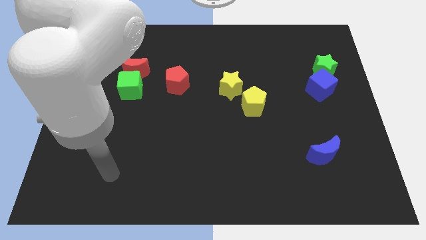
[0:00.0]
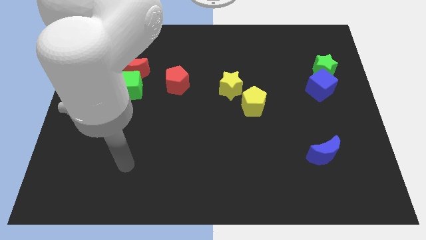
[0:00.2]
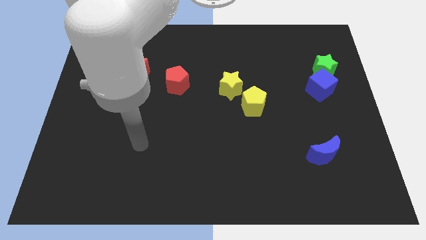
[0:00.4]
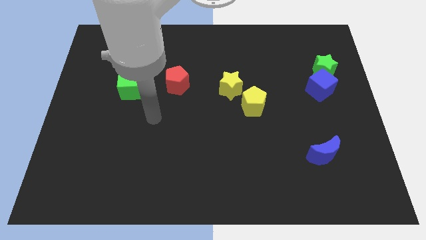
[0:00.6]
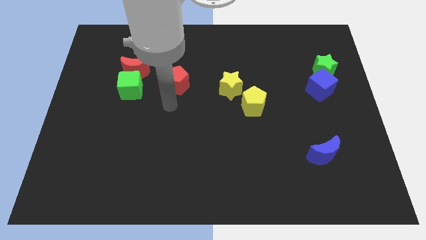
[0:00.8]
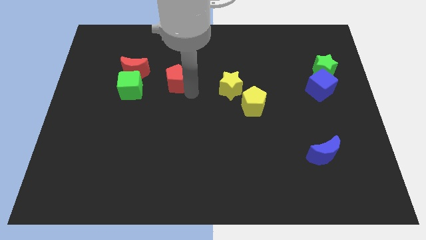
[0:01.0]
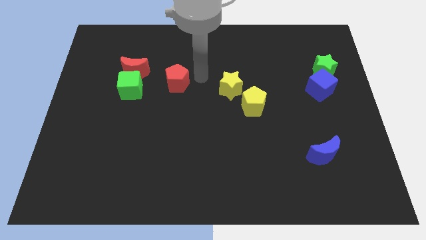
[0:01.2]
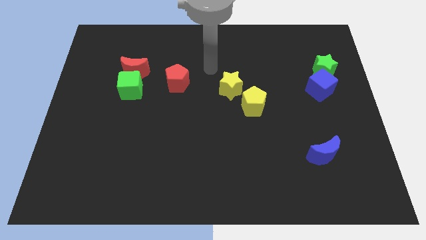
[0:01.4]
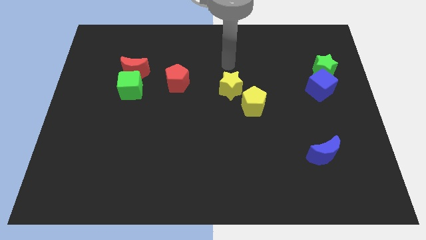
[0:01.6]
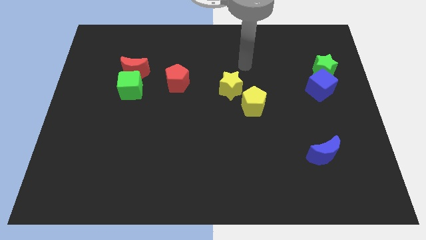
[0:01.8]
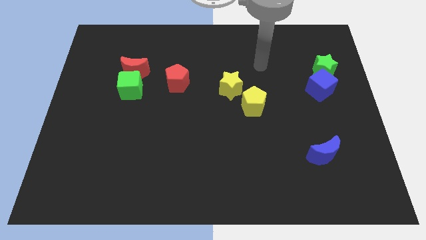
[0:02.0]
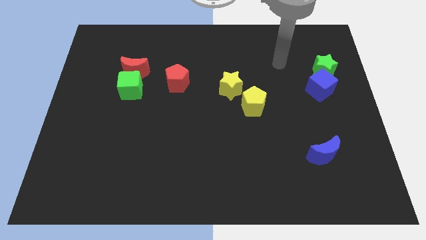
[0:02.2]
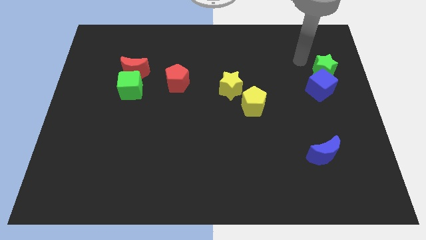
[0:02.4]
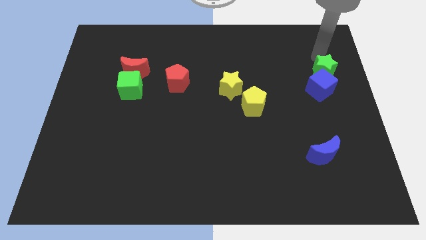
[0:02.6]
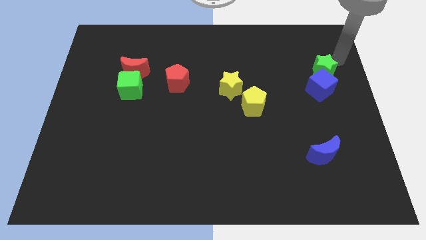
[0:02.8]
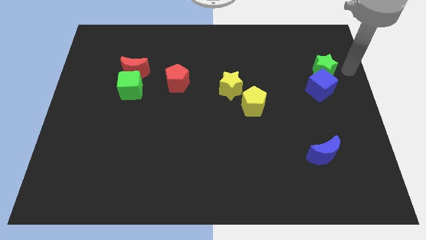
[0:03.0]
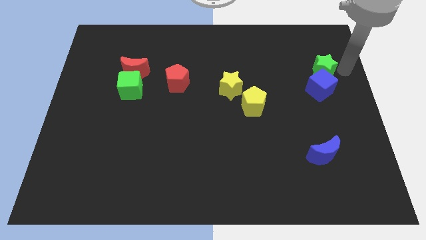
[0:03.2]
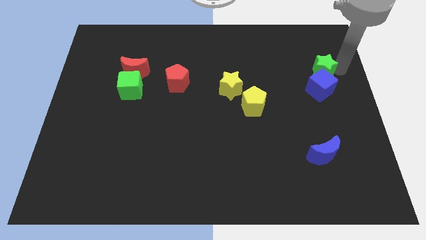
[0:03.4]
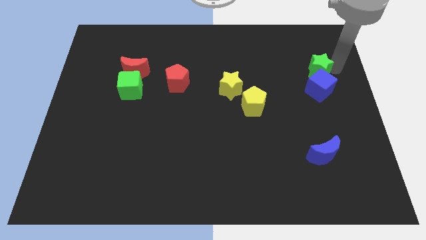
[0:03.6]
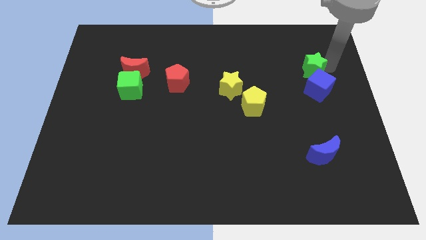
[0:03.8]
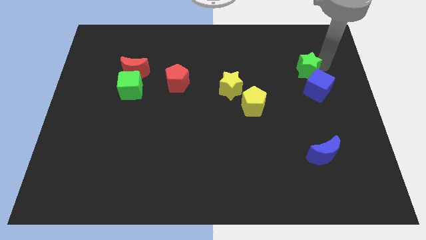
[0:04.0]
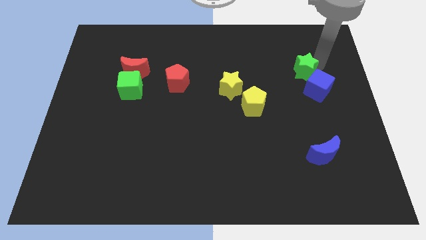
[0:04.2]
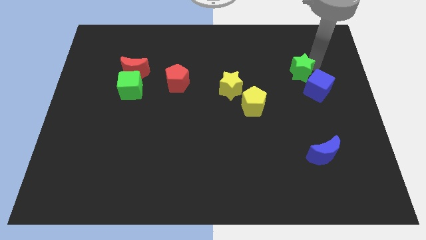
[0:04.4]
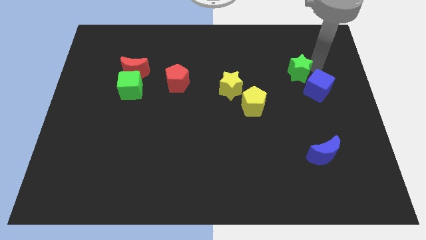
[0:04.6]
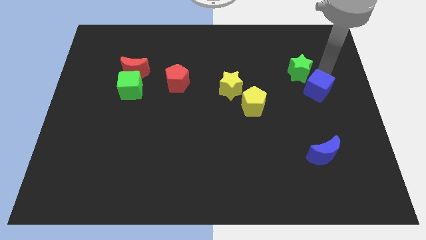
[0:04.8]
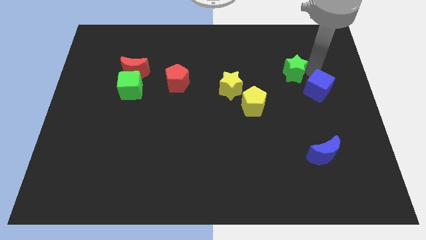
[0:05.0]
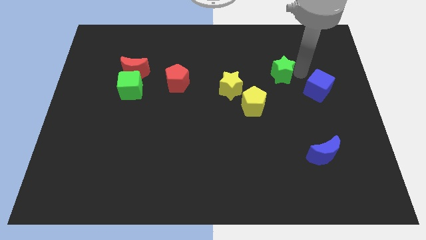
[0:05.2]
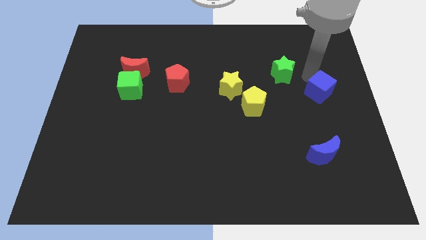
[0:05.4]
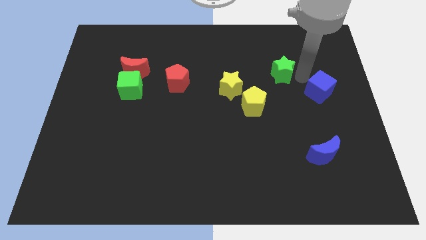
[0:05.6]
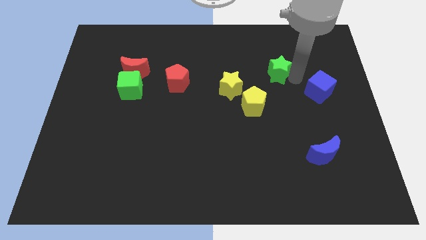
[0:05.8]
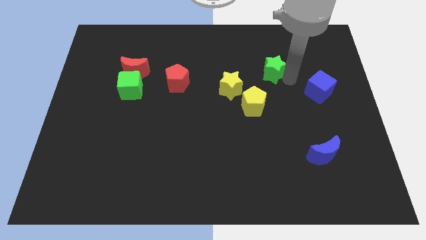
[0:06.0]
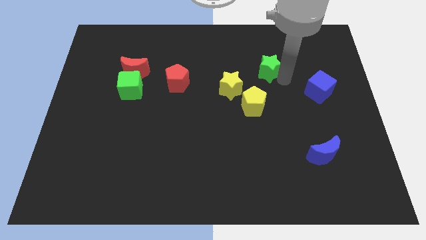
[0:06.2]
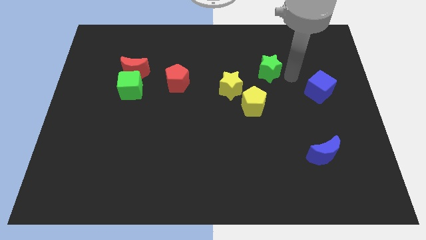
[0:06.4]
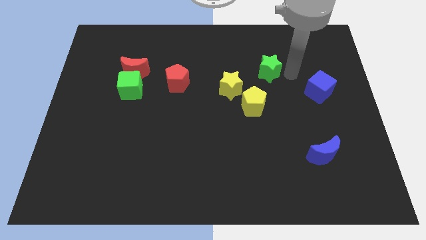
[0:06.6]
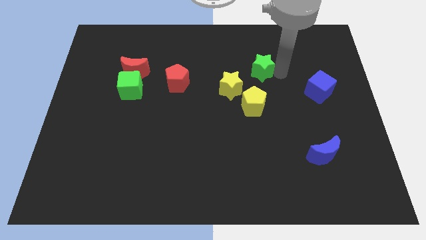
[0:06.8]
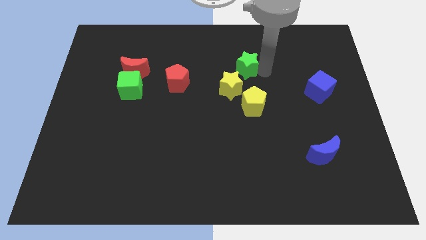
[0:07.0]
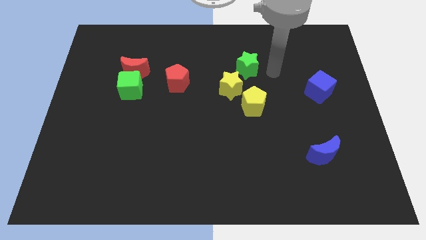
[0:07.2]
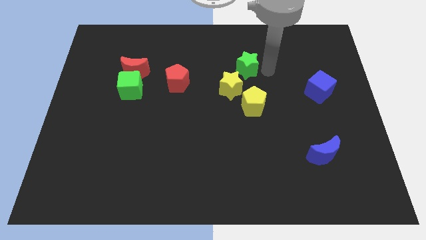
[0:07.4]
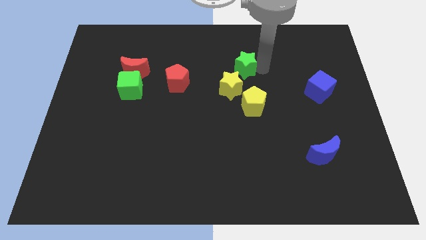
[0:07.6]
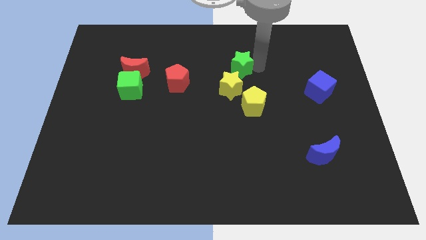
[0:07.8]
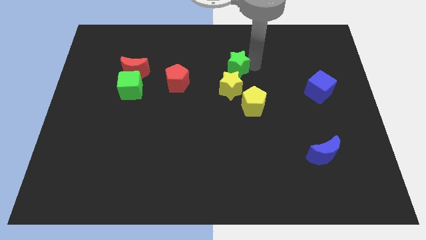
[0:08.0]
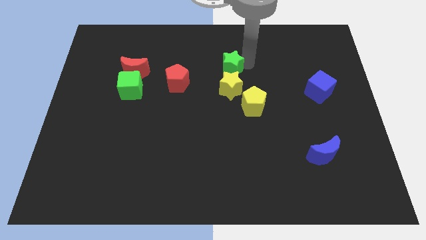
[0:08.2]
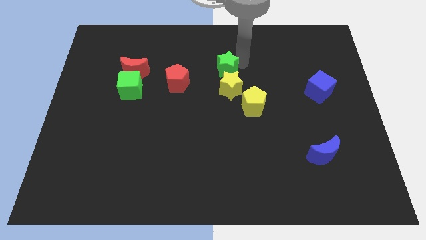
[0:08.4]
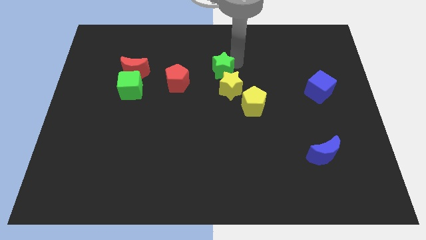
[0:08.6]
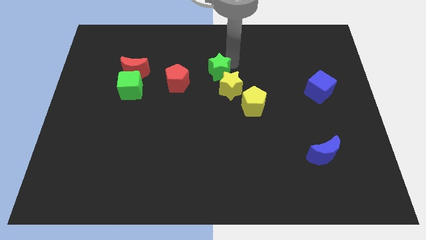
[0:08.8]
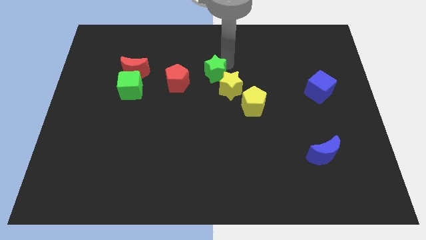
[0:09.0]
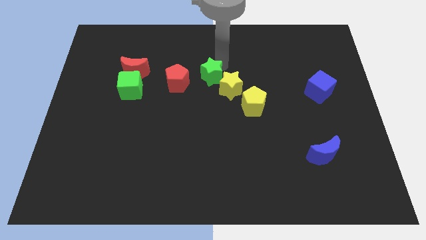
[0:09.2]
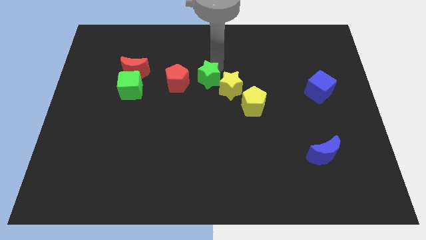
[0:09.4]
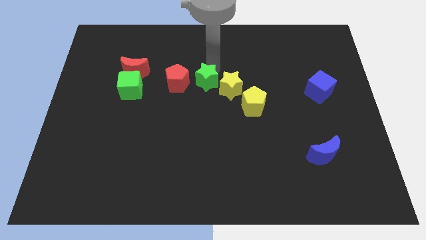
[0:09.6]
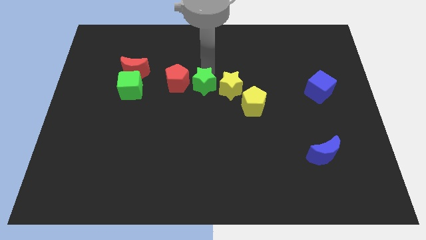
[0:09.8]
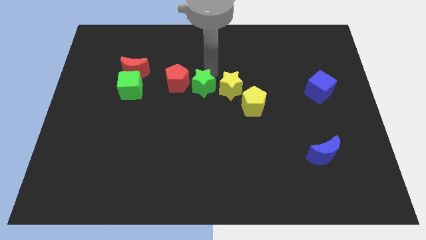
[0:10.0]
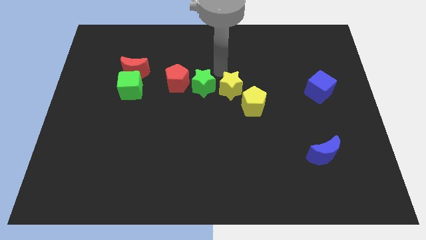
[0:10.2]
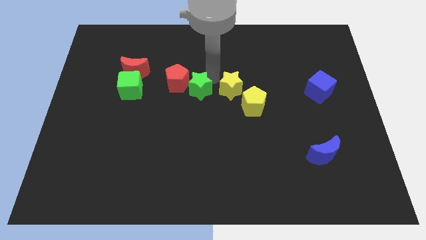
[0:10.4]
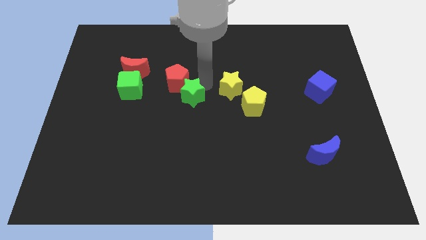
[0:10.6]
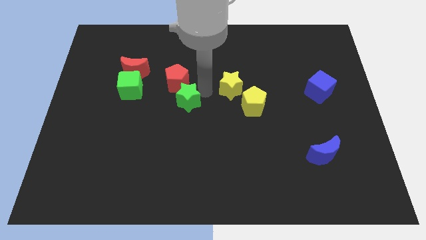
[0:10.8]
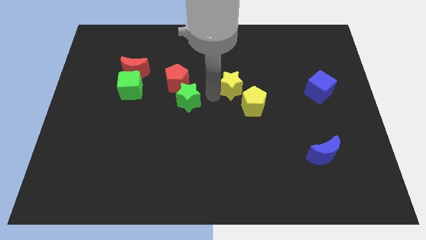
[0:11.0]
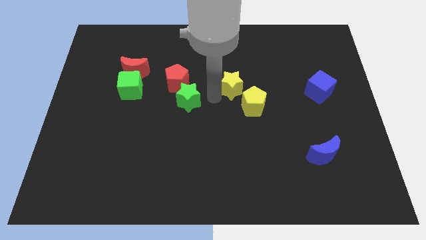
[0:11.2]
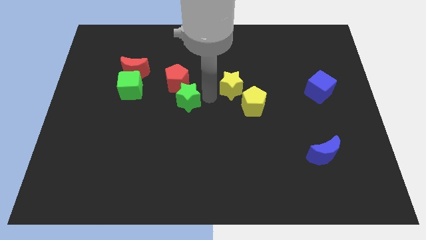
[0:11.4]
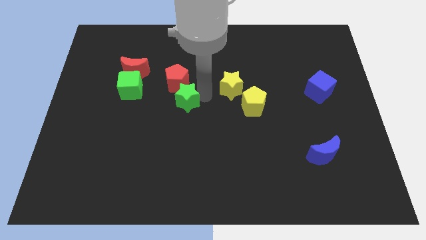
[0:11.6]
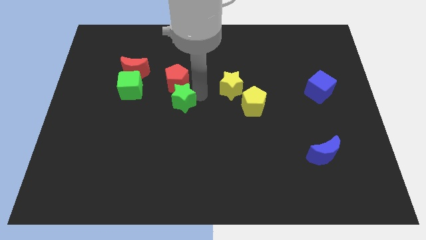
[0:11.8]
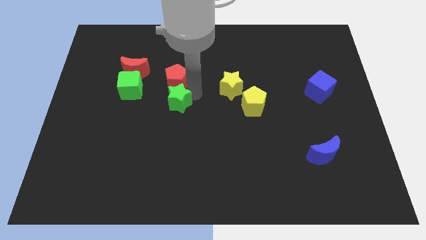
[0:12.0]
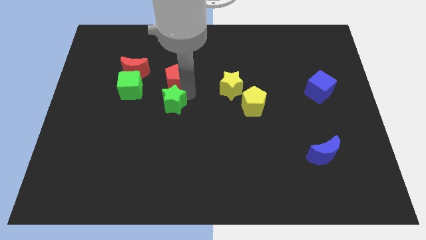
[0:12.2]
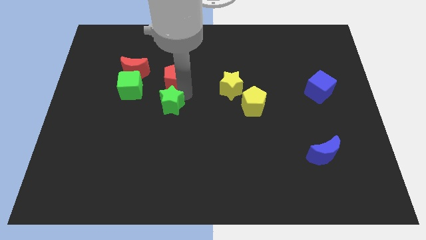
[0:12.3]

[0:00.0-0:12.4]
move the green star to the bottom right side of the green cube
